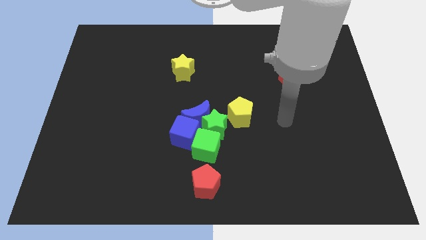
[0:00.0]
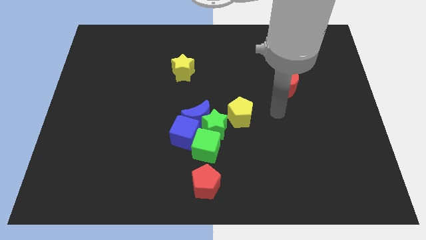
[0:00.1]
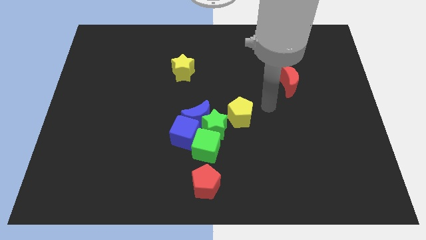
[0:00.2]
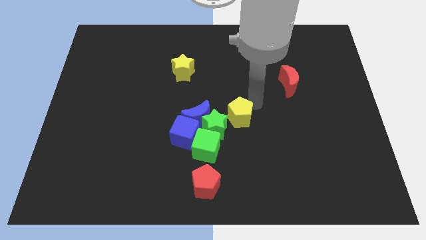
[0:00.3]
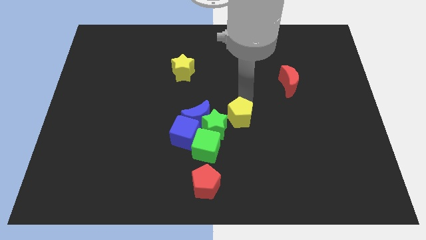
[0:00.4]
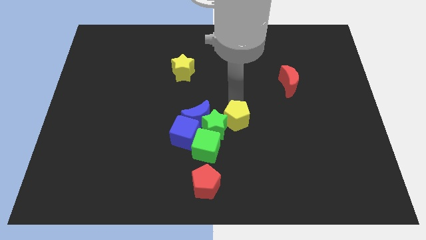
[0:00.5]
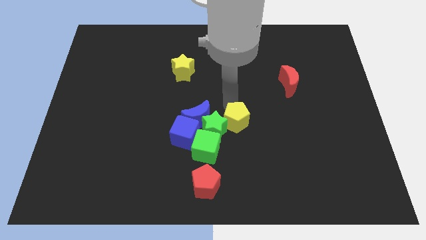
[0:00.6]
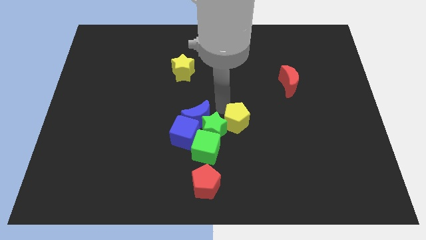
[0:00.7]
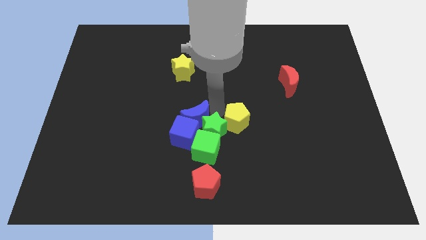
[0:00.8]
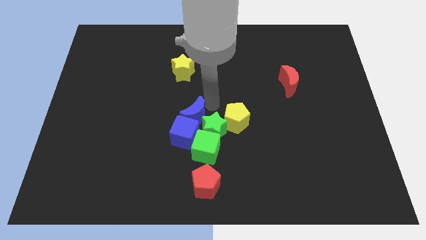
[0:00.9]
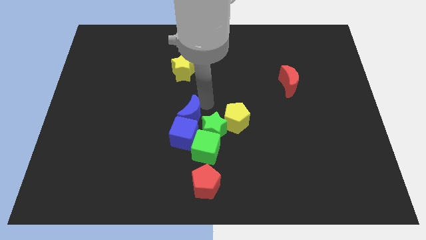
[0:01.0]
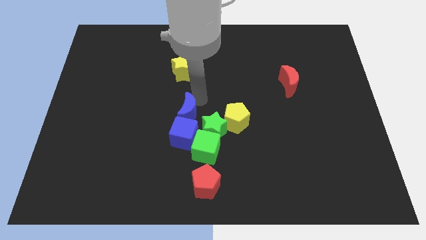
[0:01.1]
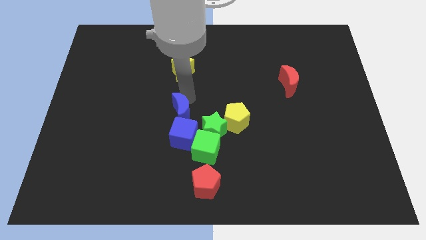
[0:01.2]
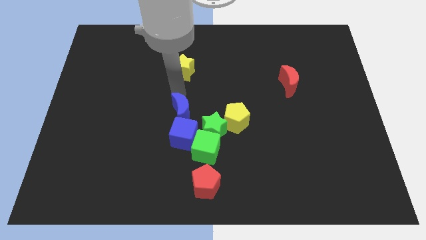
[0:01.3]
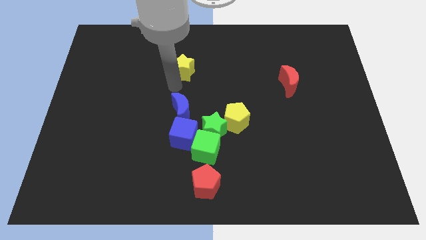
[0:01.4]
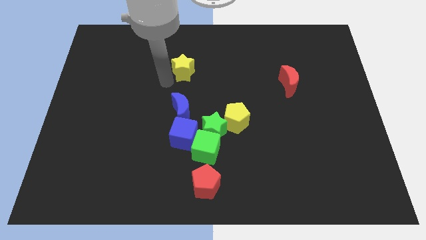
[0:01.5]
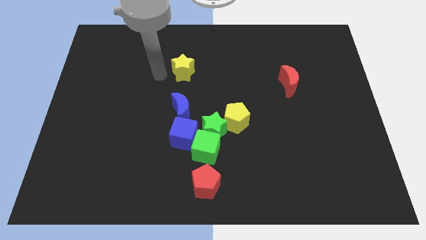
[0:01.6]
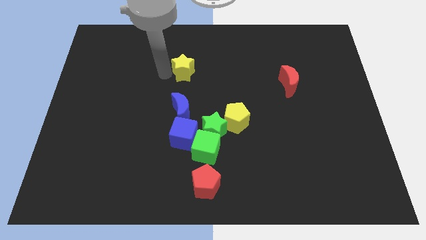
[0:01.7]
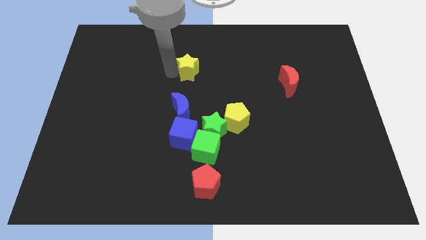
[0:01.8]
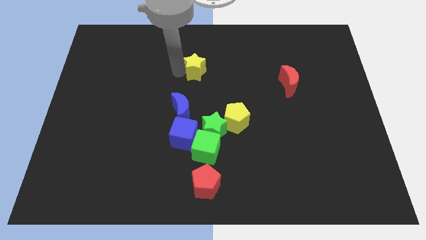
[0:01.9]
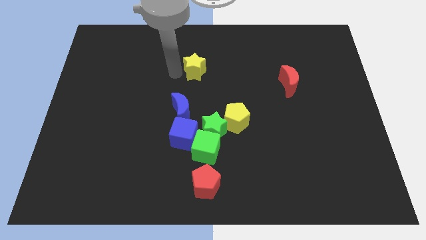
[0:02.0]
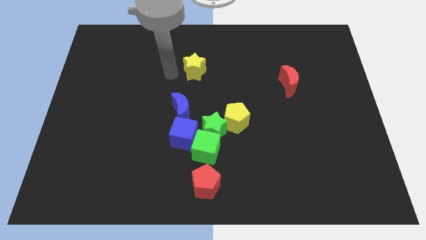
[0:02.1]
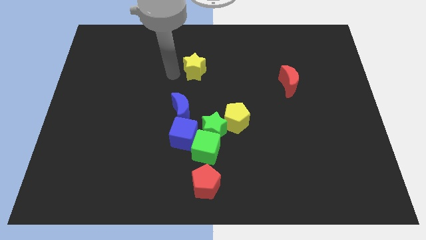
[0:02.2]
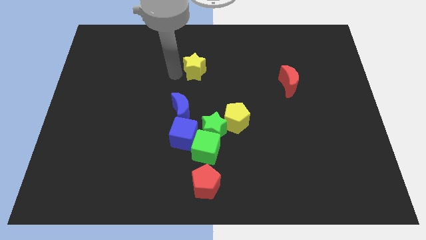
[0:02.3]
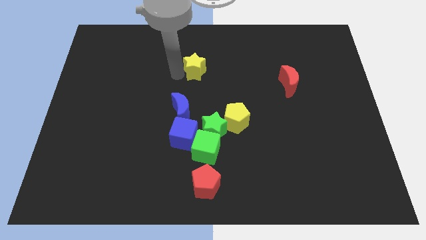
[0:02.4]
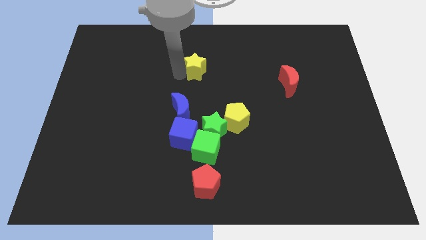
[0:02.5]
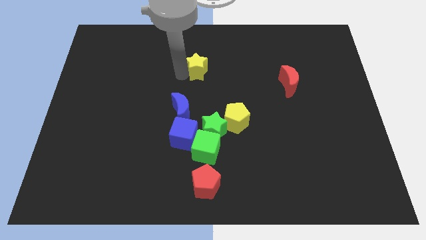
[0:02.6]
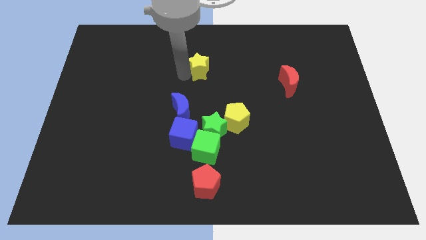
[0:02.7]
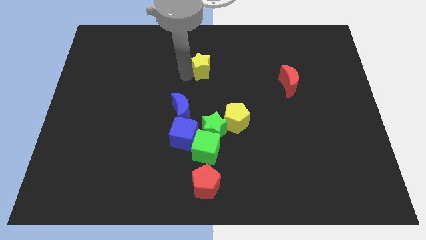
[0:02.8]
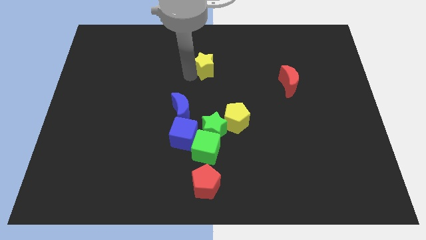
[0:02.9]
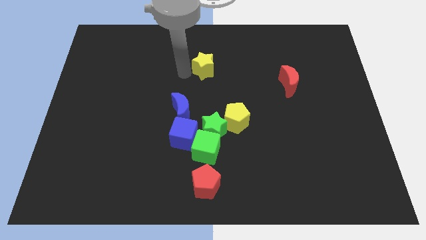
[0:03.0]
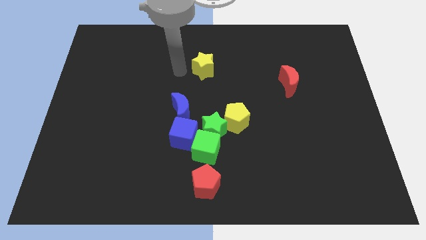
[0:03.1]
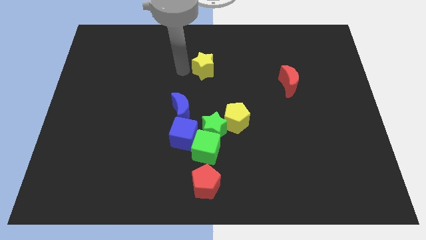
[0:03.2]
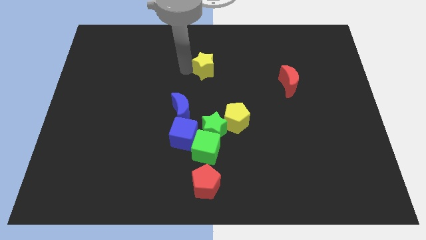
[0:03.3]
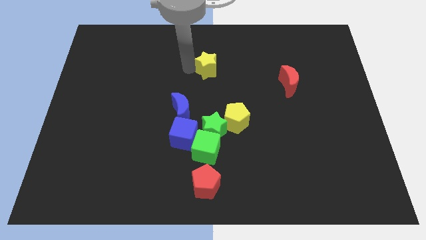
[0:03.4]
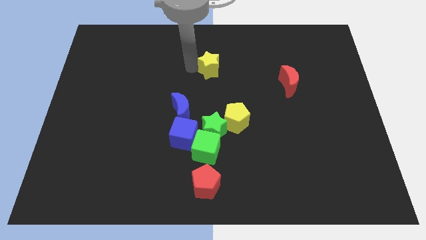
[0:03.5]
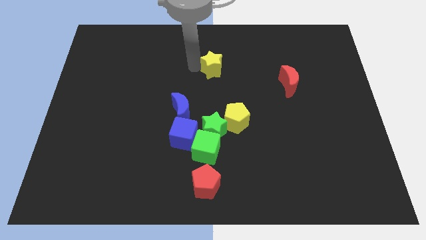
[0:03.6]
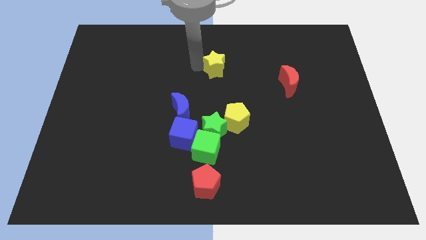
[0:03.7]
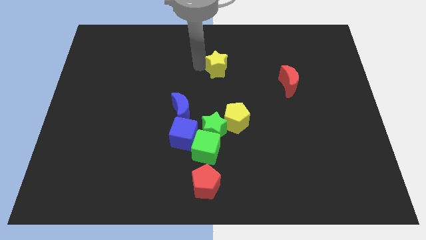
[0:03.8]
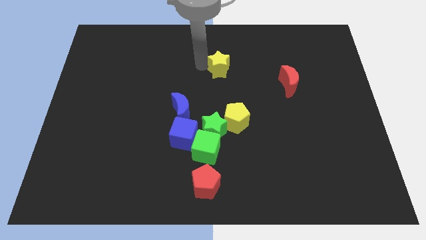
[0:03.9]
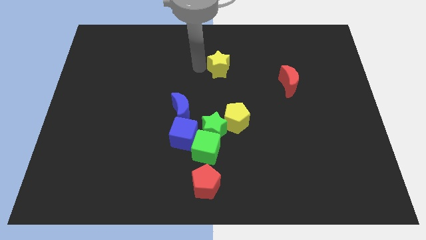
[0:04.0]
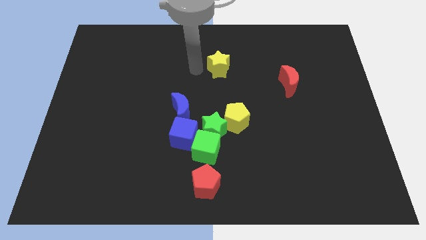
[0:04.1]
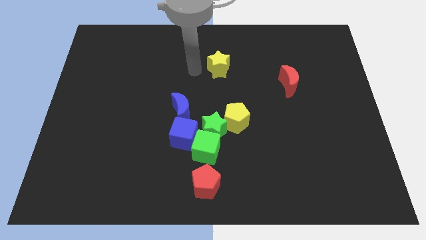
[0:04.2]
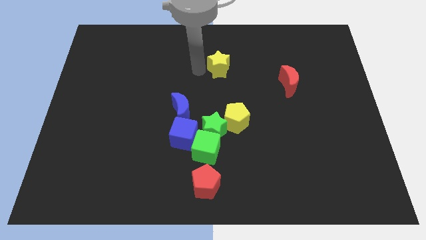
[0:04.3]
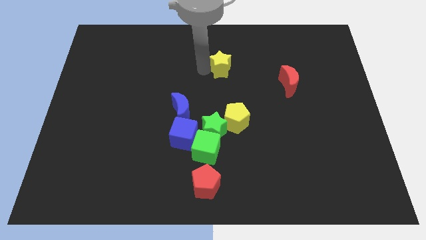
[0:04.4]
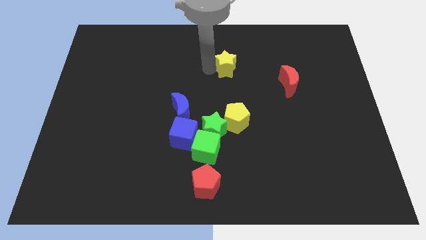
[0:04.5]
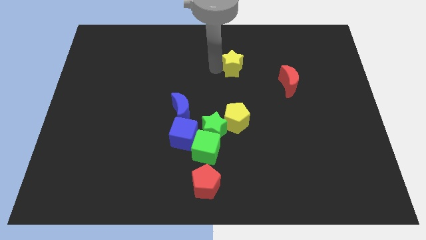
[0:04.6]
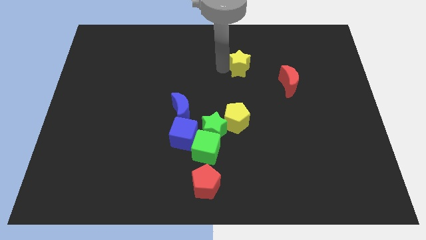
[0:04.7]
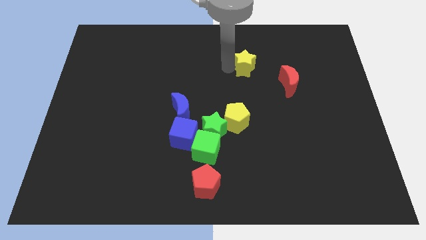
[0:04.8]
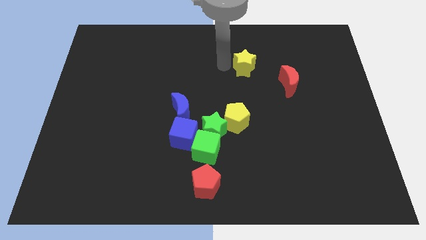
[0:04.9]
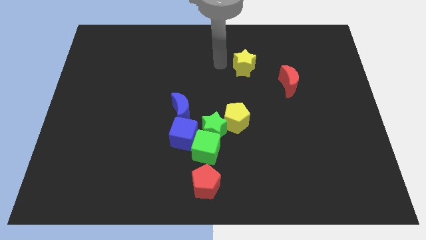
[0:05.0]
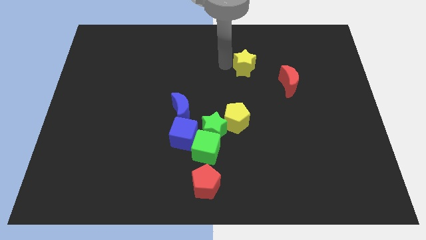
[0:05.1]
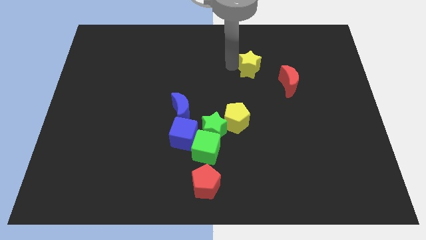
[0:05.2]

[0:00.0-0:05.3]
push the yellow star to the top left side of the red moon

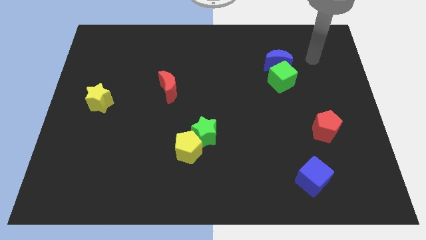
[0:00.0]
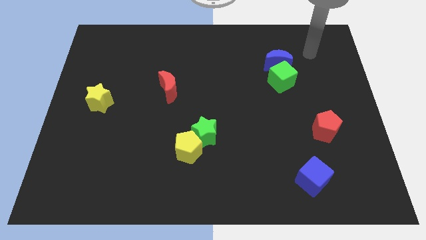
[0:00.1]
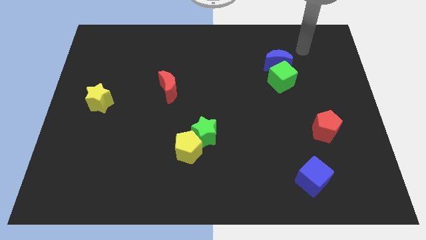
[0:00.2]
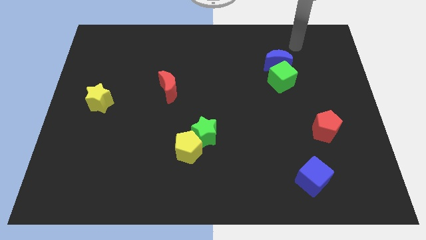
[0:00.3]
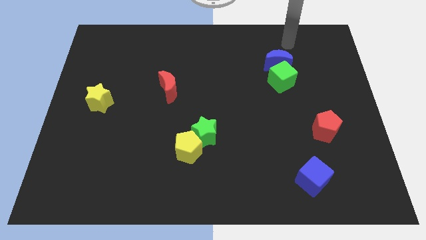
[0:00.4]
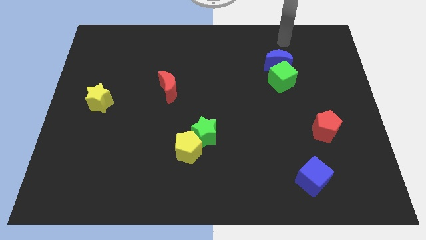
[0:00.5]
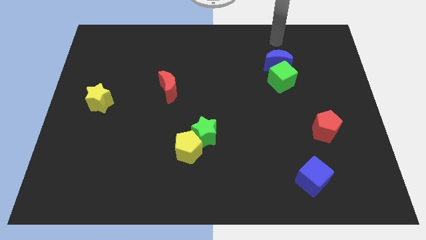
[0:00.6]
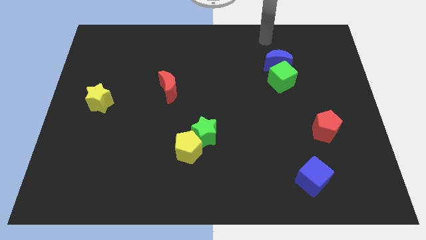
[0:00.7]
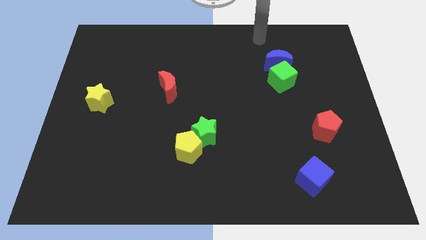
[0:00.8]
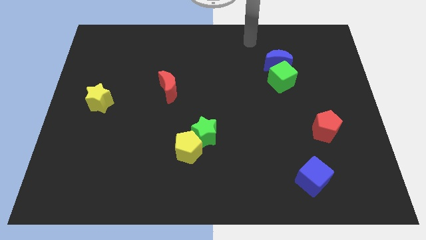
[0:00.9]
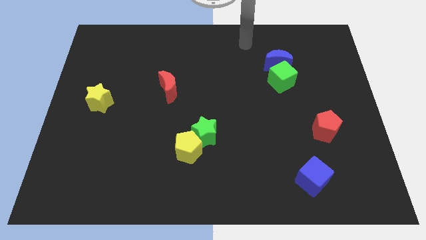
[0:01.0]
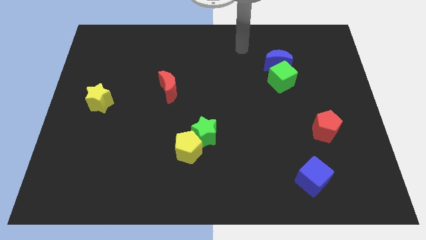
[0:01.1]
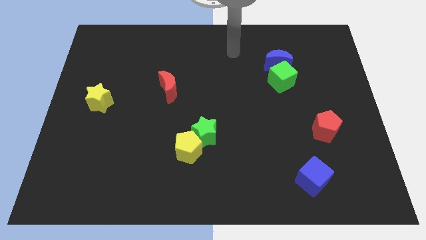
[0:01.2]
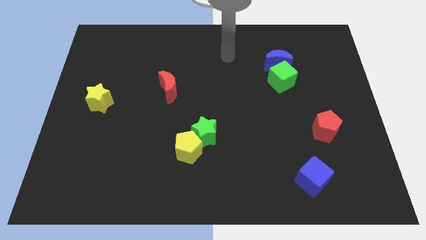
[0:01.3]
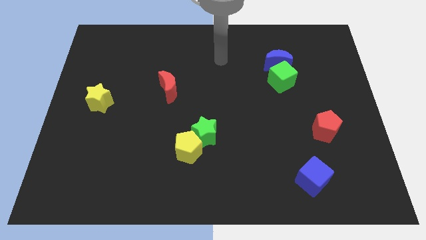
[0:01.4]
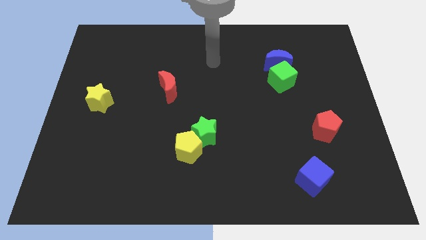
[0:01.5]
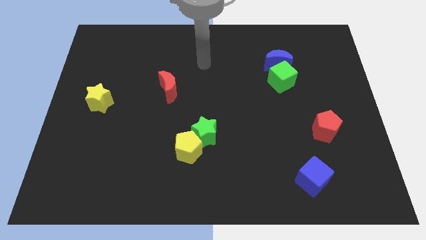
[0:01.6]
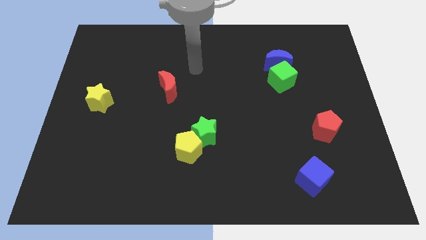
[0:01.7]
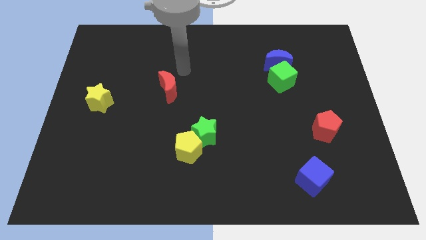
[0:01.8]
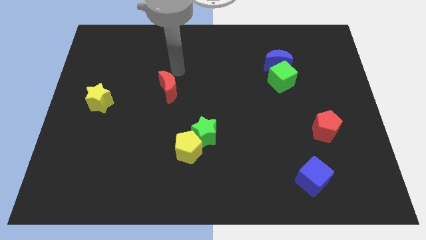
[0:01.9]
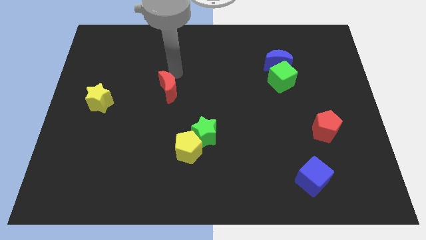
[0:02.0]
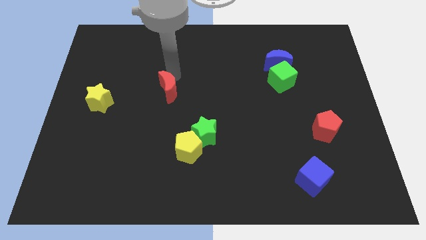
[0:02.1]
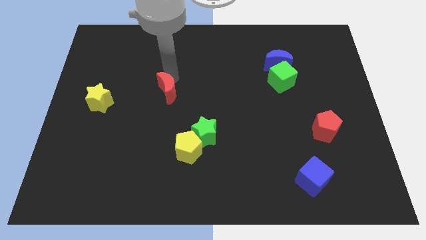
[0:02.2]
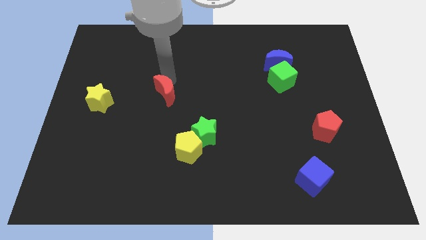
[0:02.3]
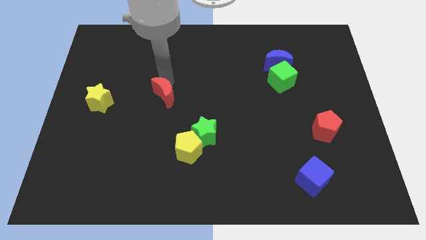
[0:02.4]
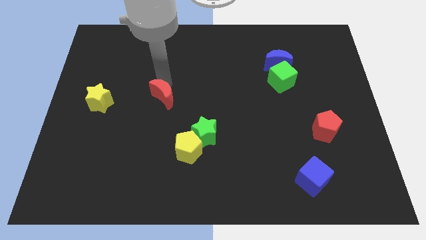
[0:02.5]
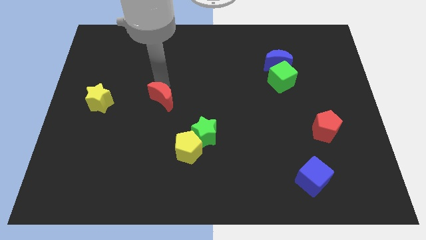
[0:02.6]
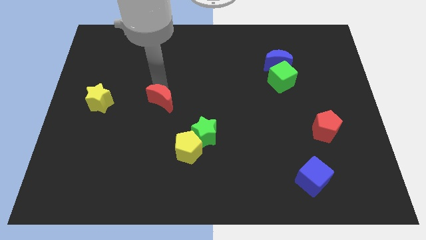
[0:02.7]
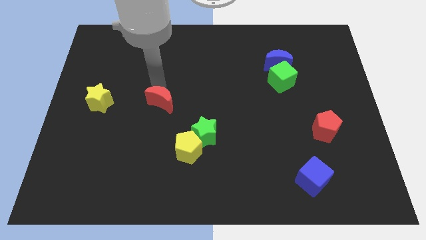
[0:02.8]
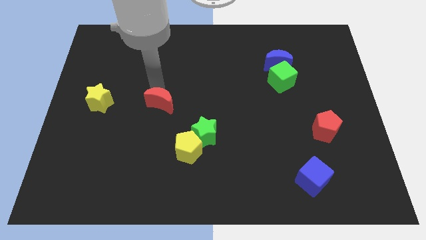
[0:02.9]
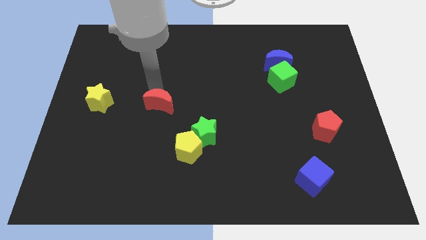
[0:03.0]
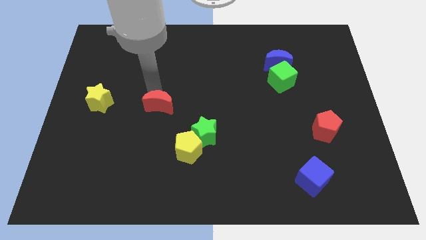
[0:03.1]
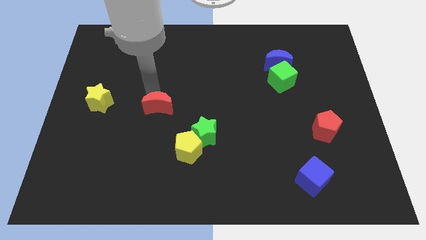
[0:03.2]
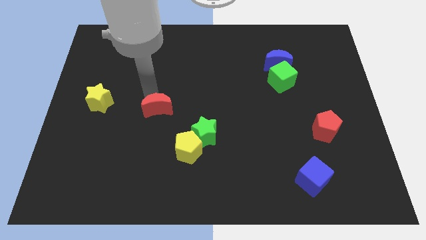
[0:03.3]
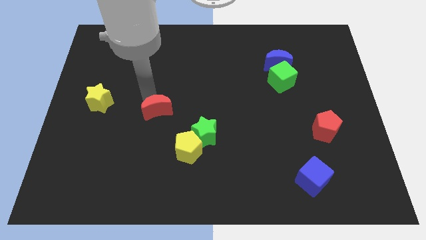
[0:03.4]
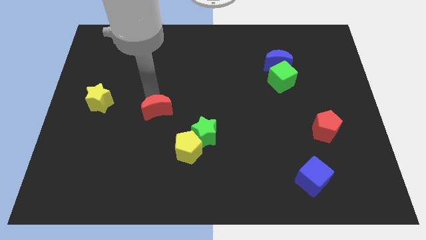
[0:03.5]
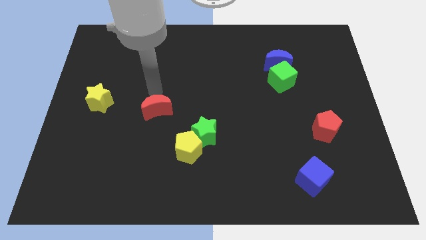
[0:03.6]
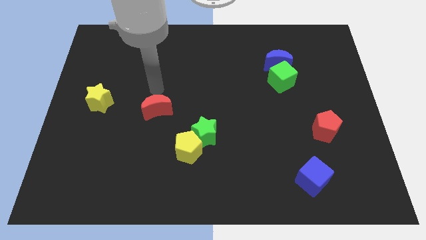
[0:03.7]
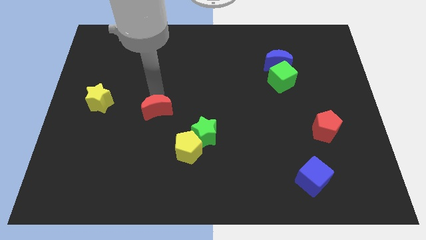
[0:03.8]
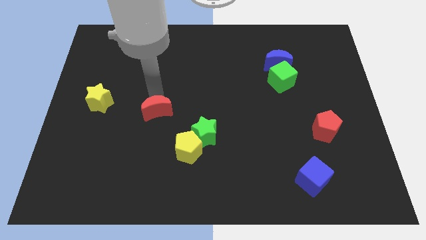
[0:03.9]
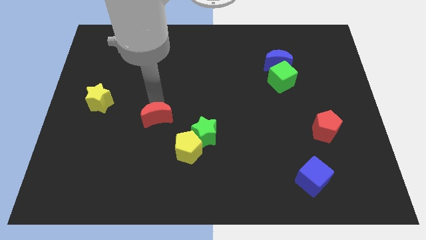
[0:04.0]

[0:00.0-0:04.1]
move the red moon just left of the green star
